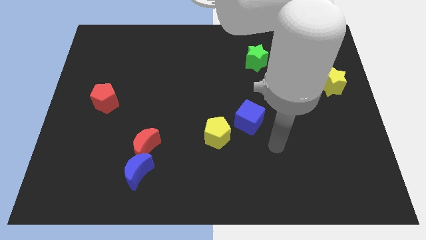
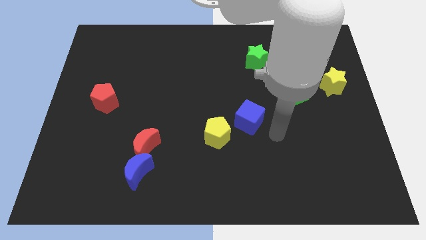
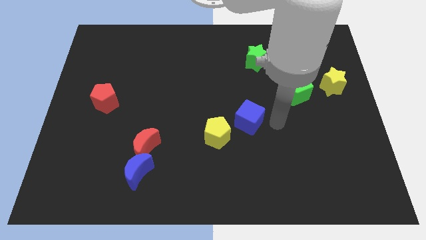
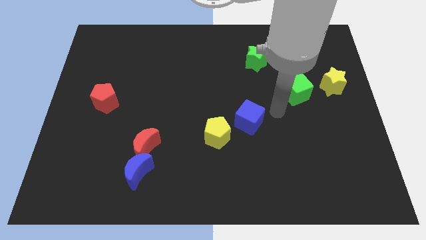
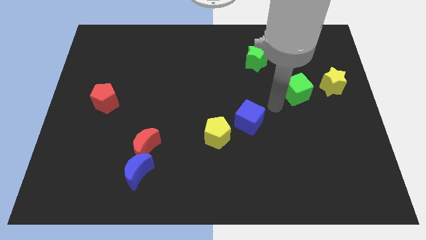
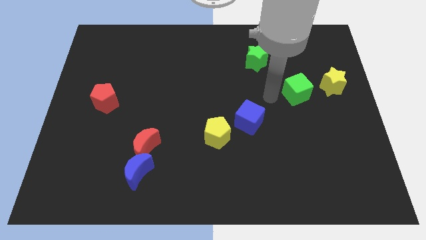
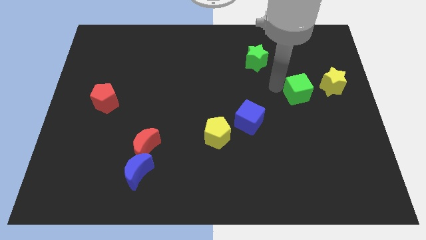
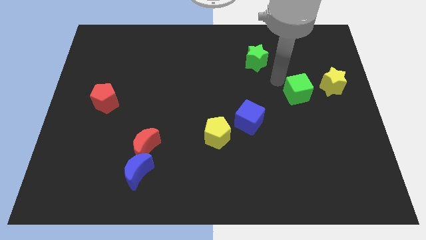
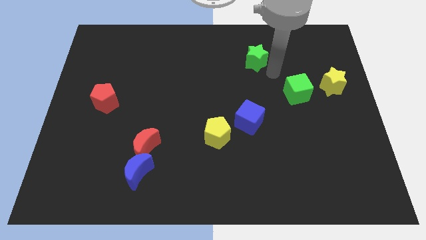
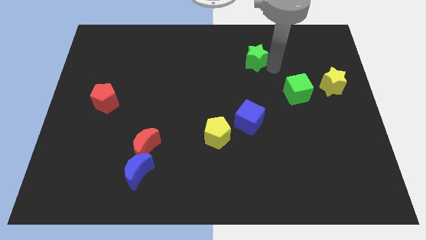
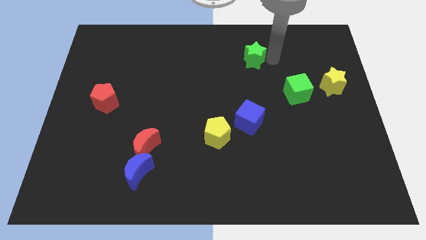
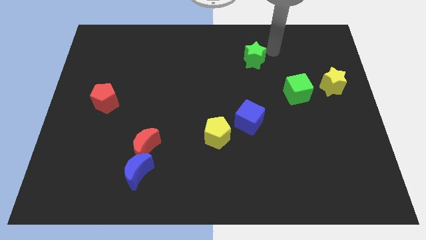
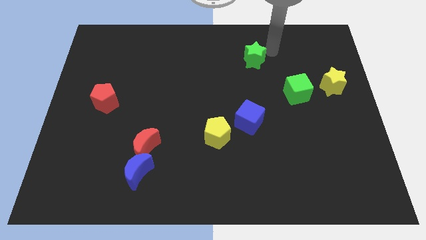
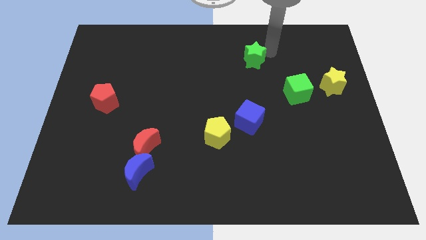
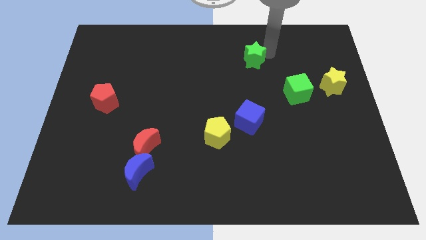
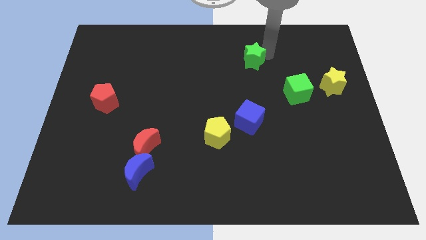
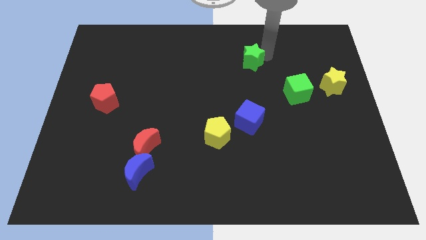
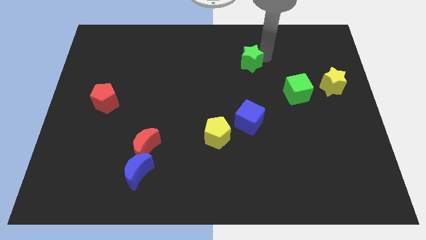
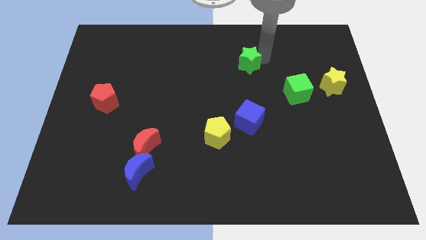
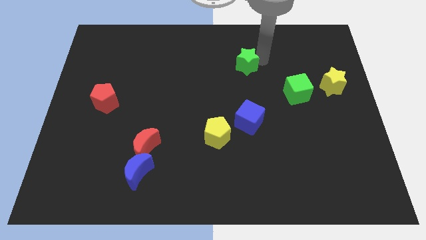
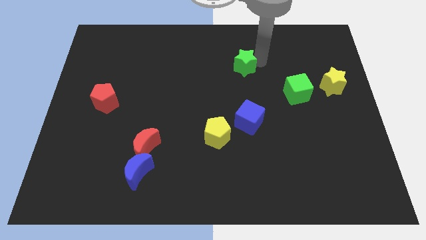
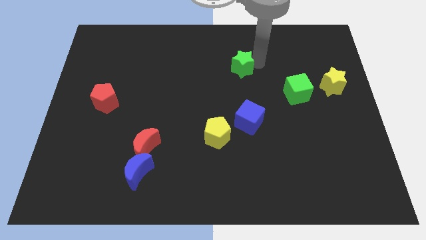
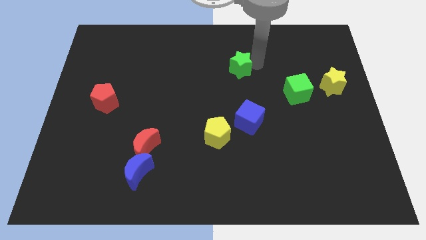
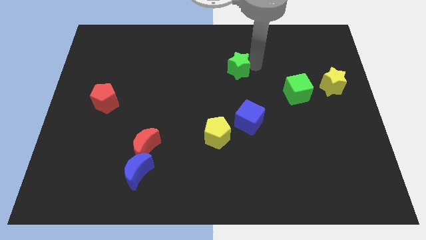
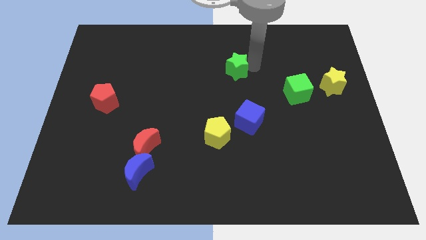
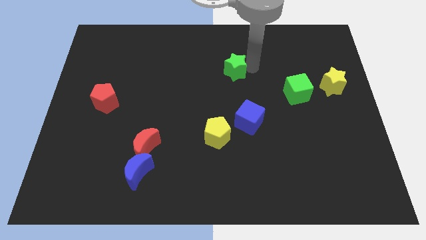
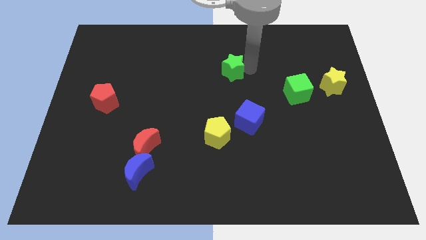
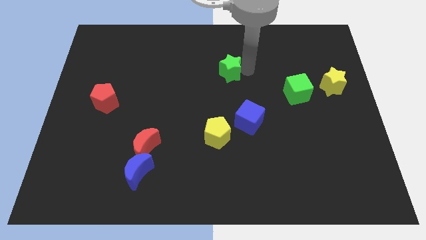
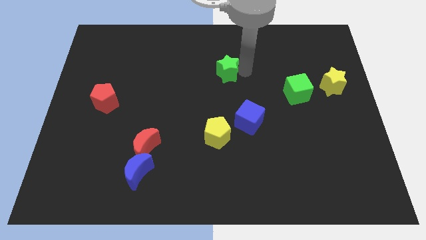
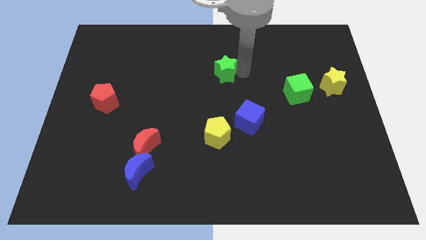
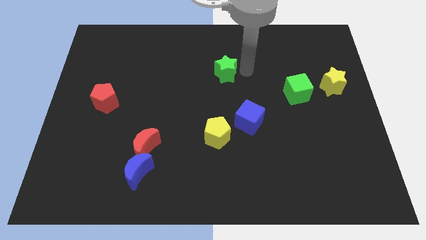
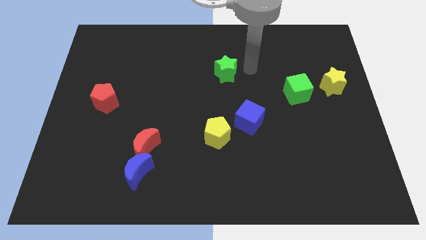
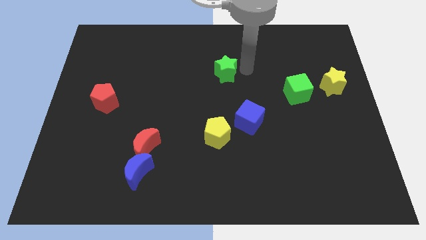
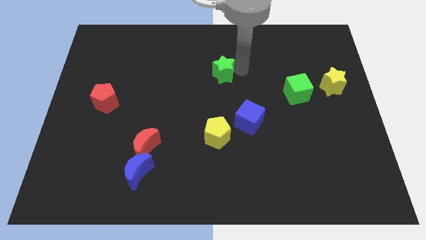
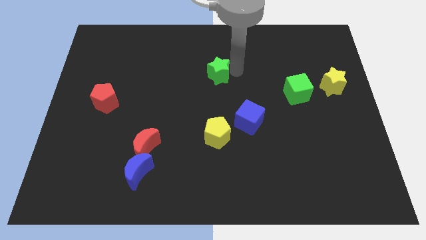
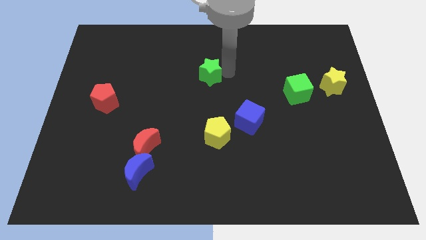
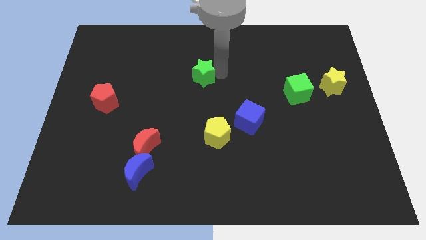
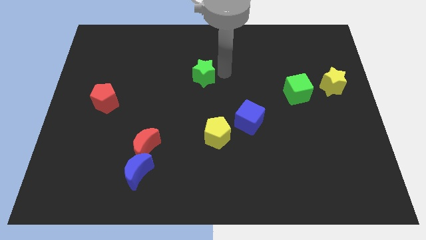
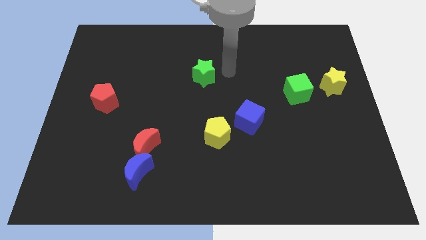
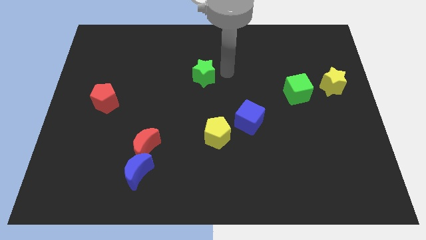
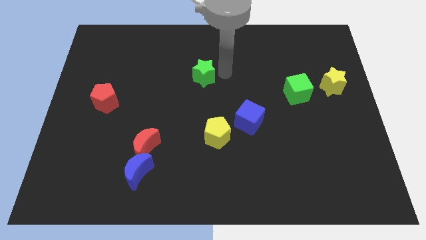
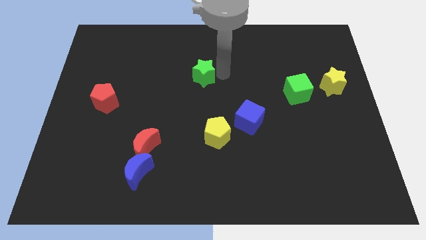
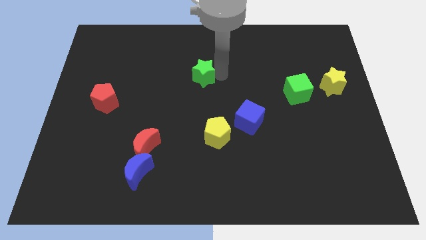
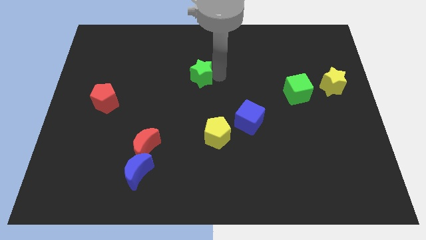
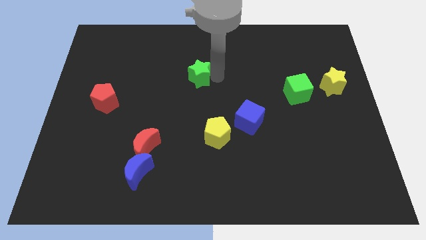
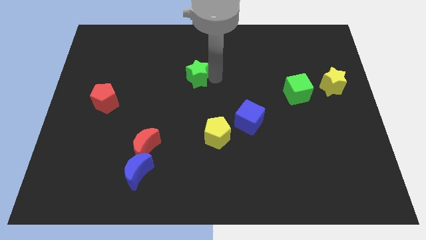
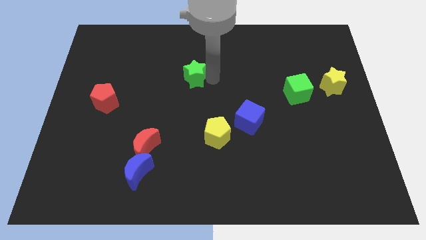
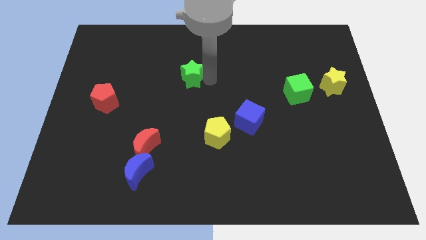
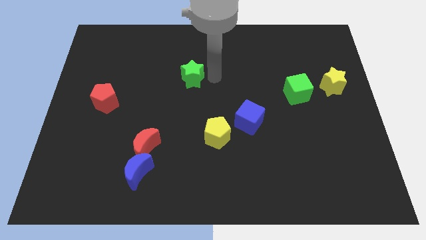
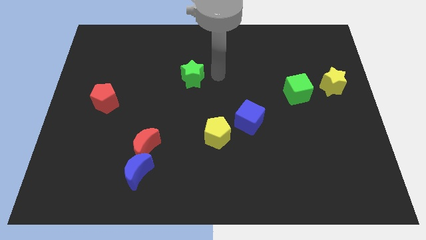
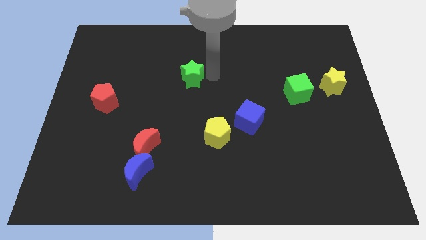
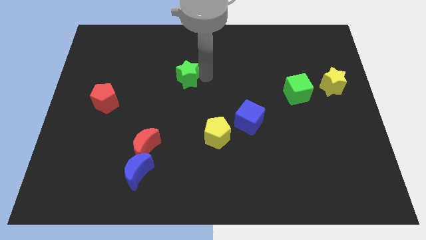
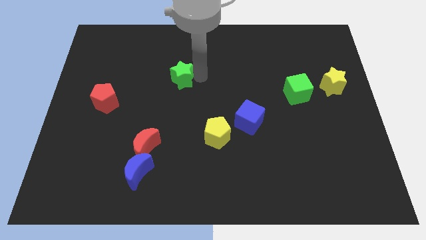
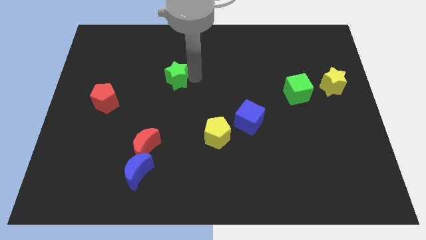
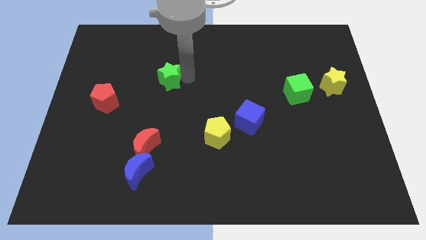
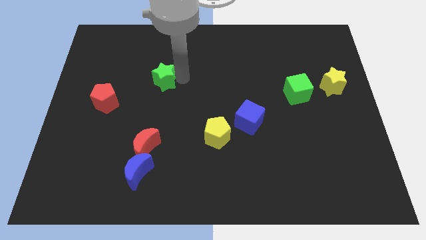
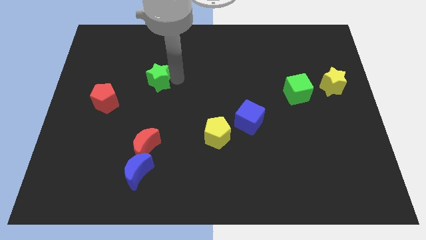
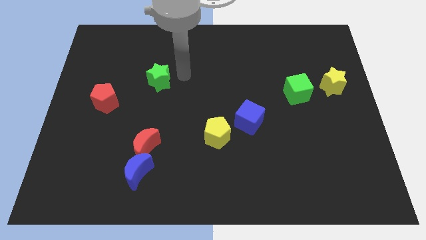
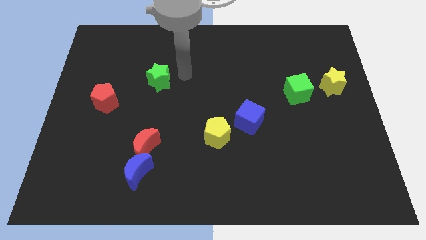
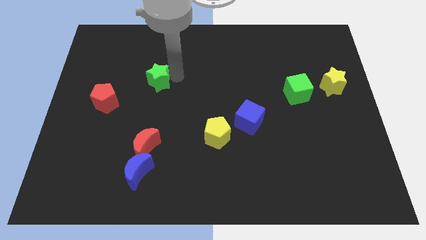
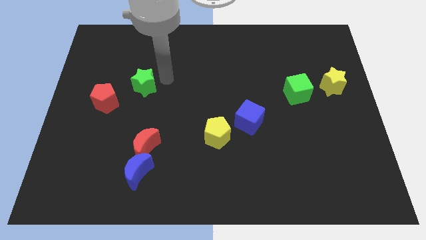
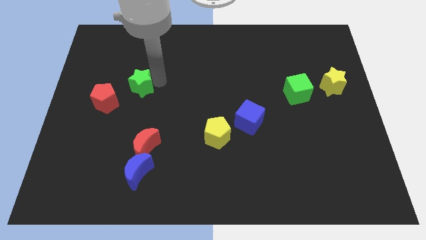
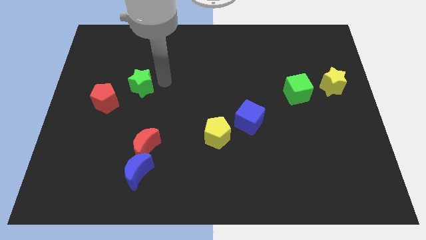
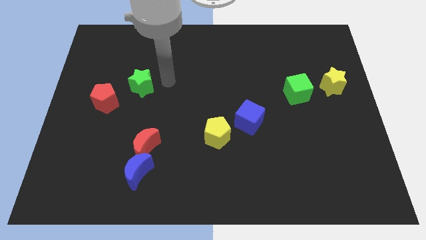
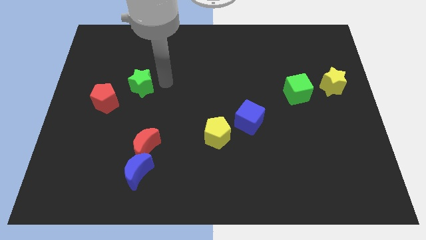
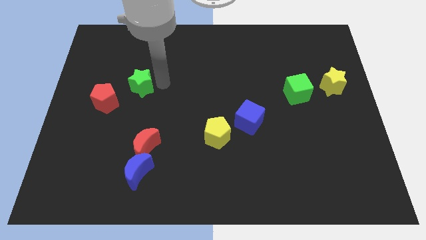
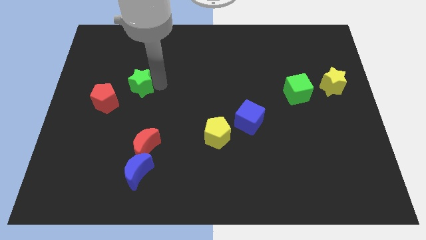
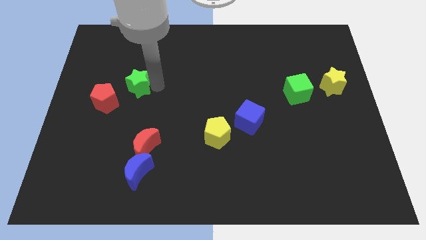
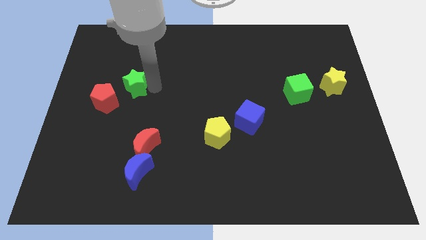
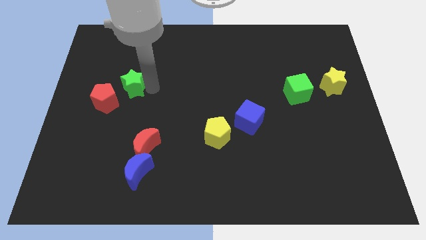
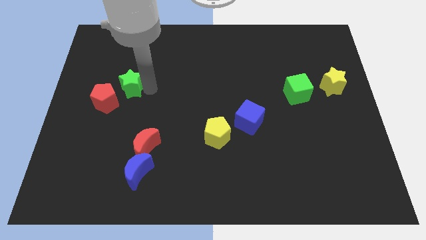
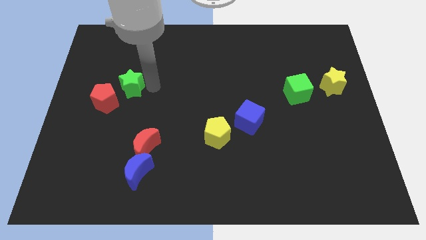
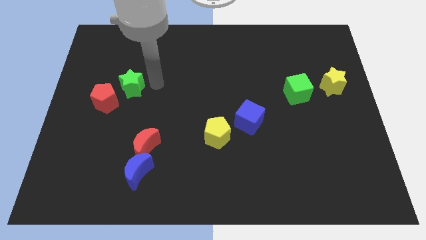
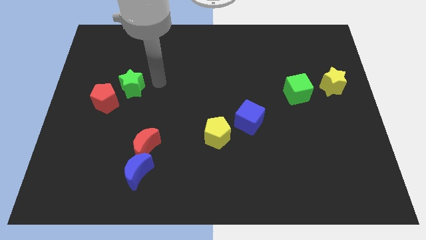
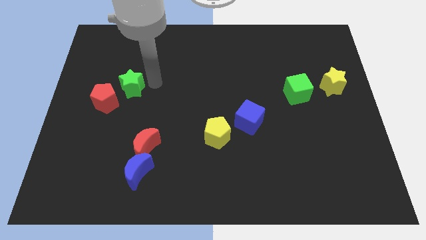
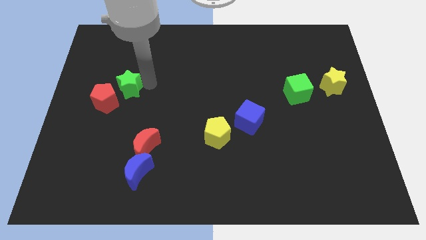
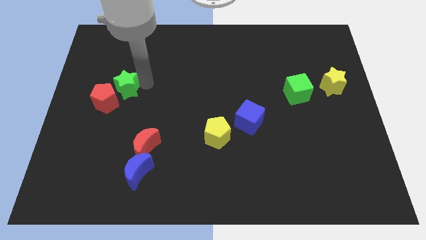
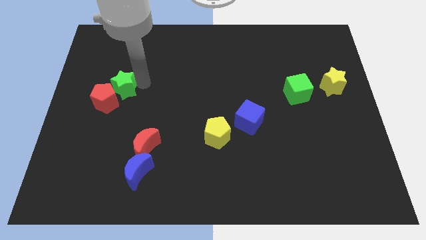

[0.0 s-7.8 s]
push the green star next to the red pentagon
